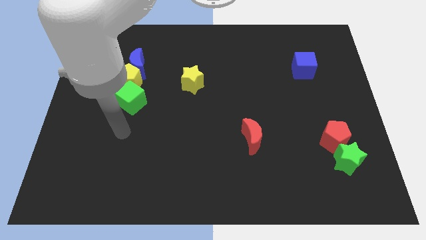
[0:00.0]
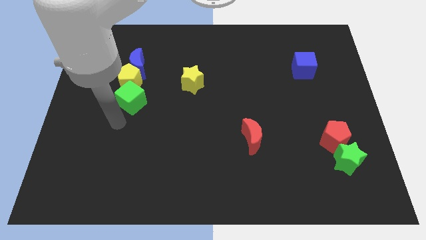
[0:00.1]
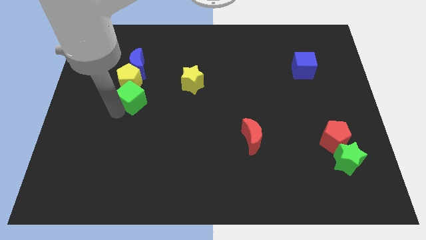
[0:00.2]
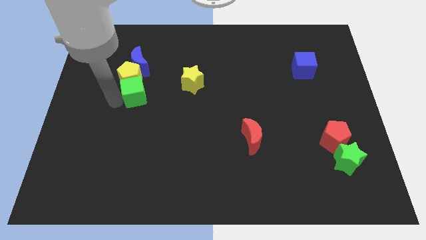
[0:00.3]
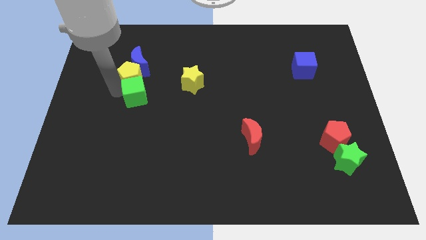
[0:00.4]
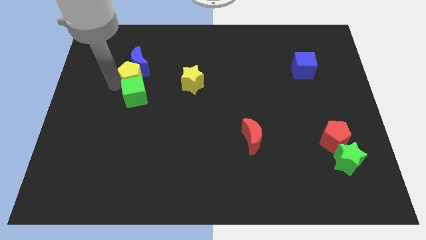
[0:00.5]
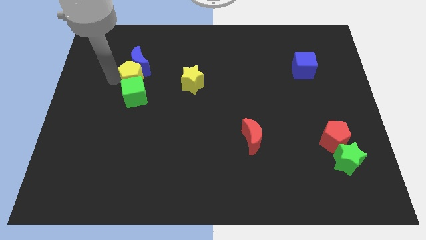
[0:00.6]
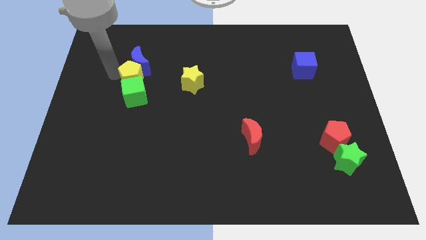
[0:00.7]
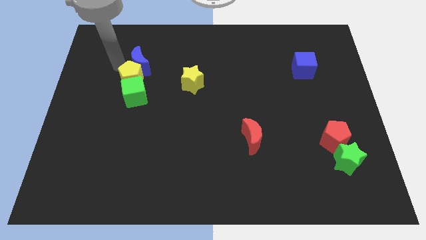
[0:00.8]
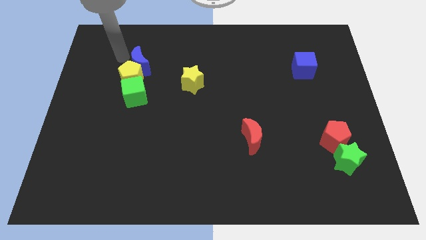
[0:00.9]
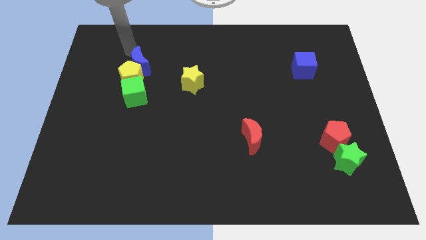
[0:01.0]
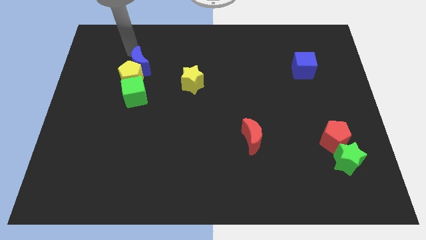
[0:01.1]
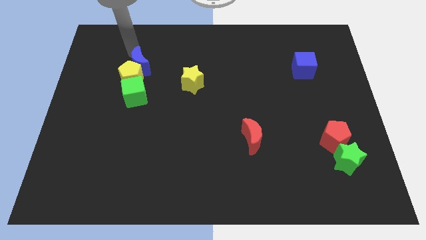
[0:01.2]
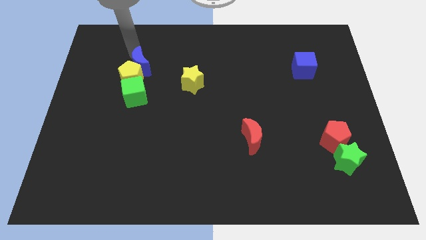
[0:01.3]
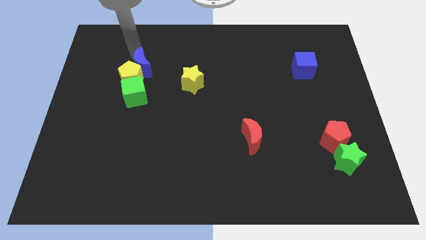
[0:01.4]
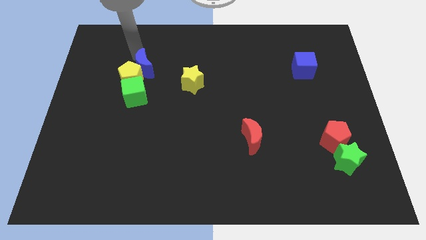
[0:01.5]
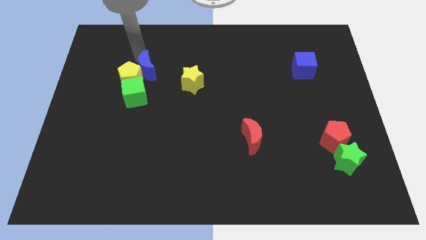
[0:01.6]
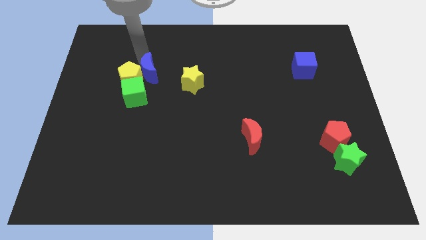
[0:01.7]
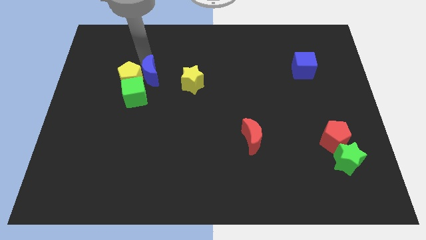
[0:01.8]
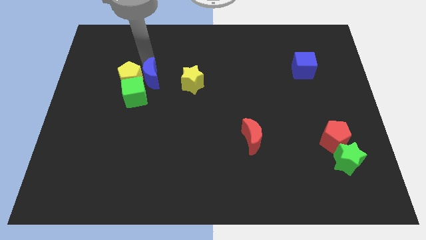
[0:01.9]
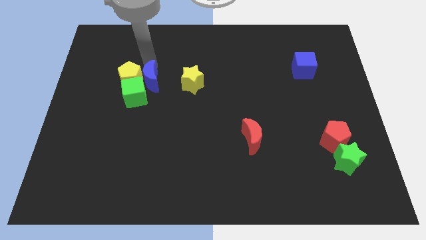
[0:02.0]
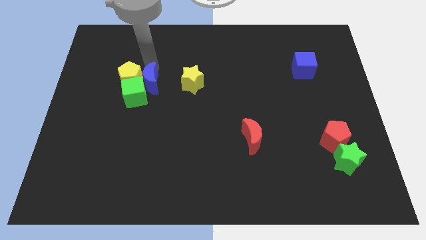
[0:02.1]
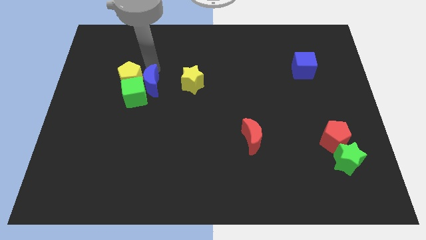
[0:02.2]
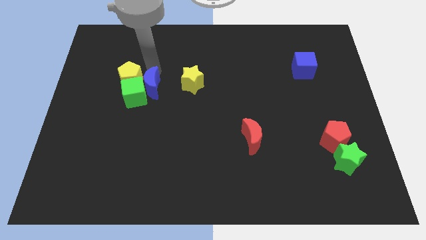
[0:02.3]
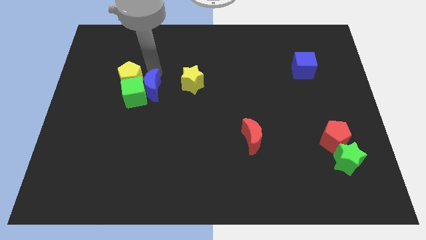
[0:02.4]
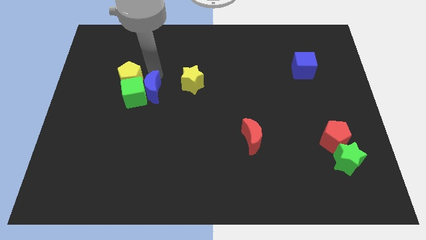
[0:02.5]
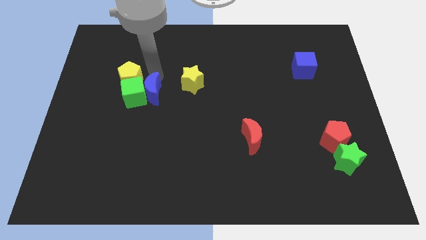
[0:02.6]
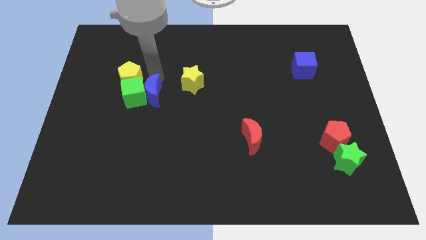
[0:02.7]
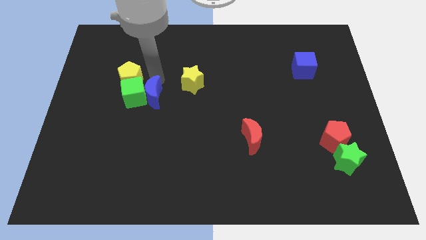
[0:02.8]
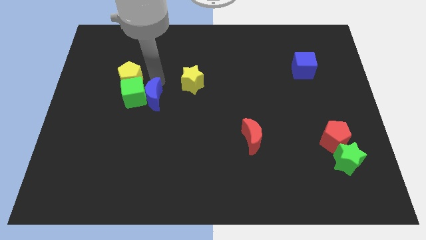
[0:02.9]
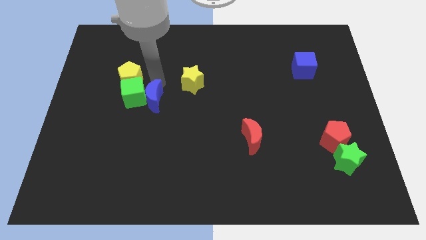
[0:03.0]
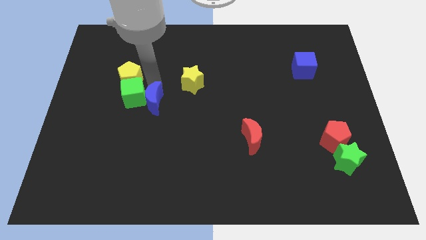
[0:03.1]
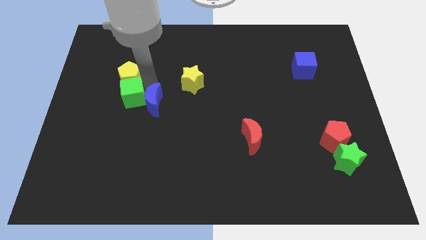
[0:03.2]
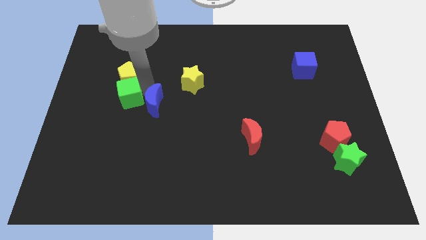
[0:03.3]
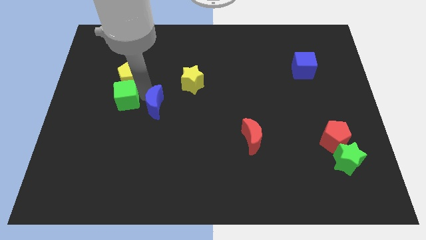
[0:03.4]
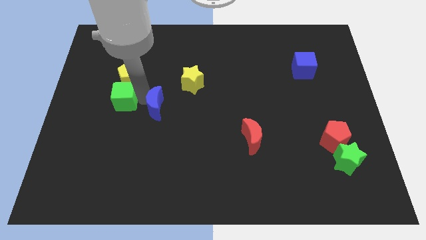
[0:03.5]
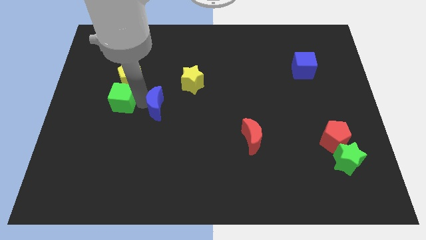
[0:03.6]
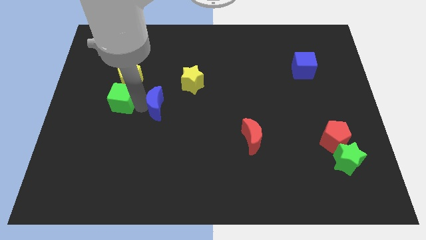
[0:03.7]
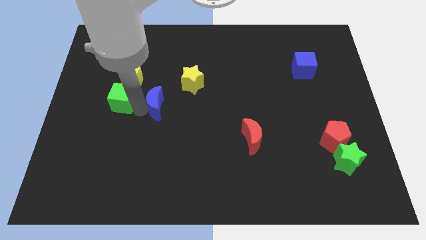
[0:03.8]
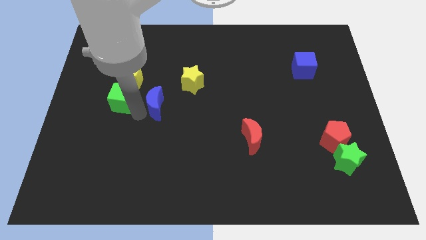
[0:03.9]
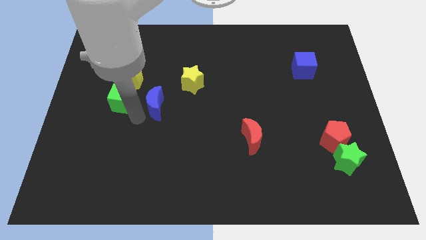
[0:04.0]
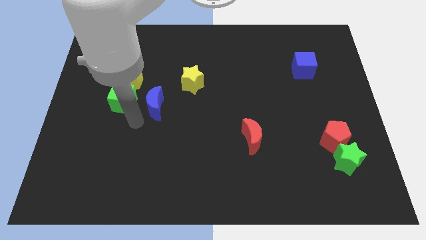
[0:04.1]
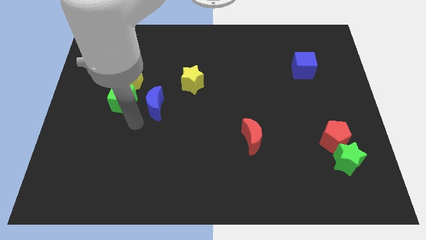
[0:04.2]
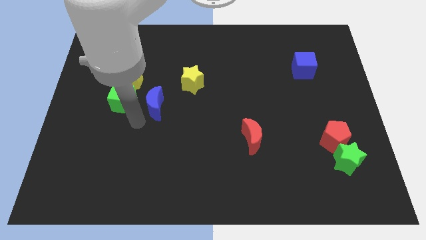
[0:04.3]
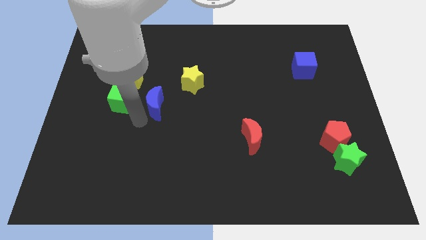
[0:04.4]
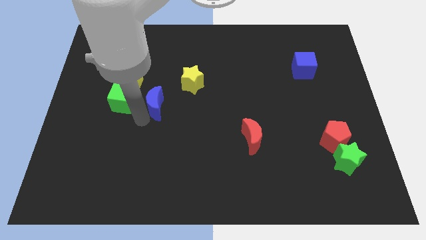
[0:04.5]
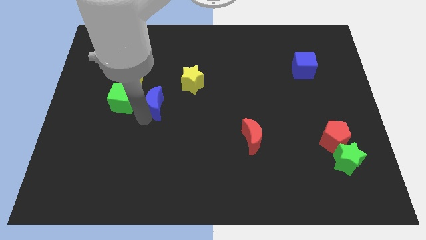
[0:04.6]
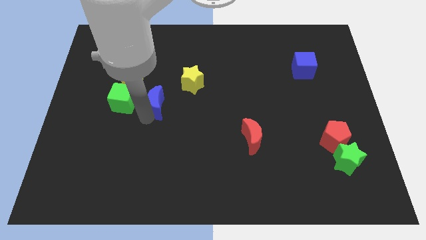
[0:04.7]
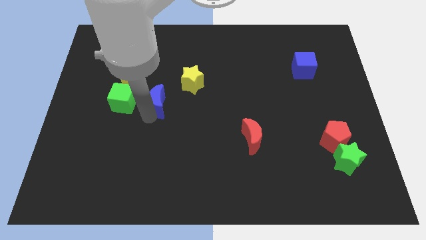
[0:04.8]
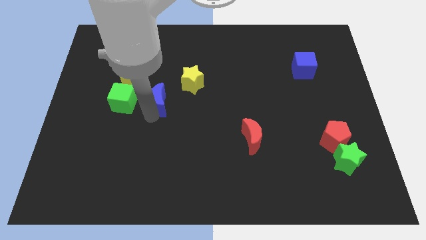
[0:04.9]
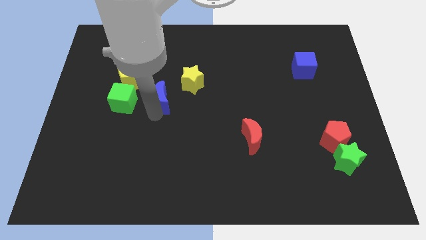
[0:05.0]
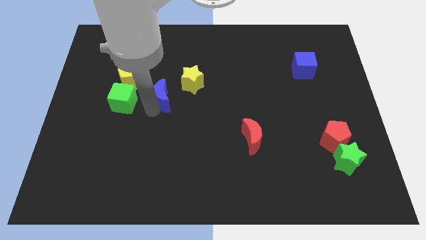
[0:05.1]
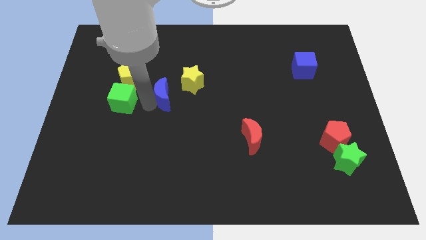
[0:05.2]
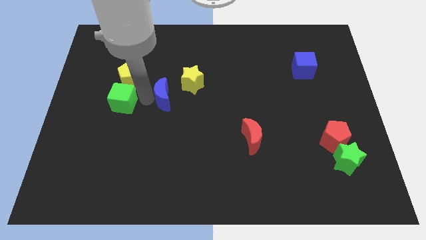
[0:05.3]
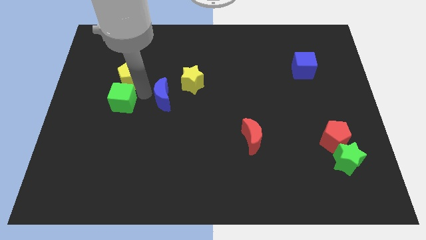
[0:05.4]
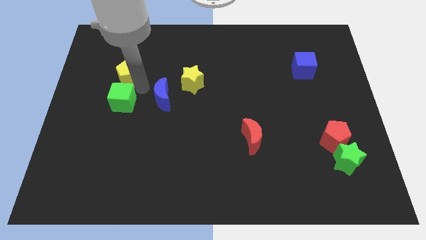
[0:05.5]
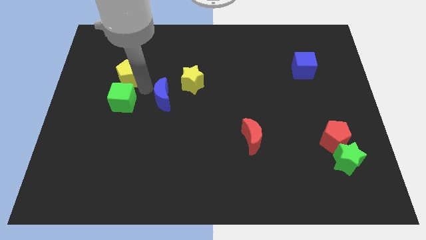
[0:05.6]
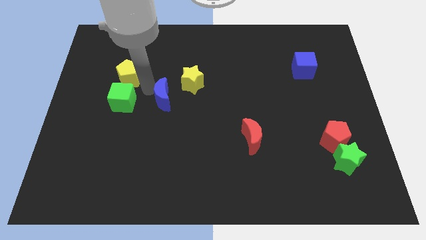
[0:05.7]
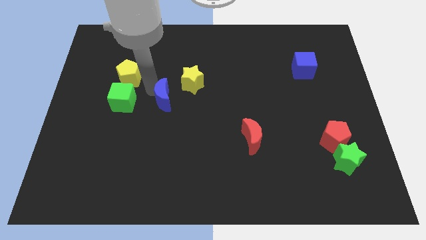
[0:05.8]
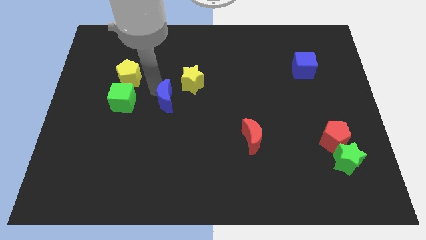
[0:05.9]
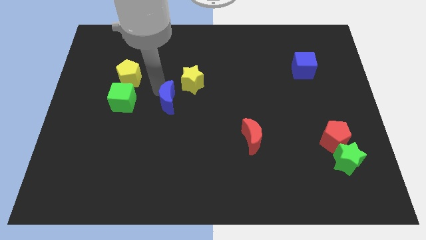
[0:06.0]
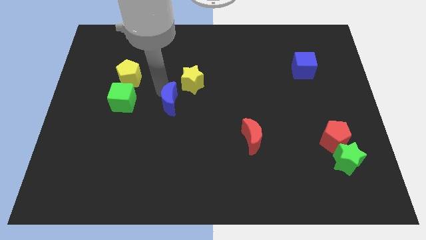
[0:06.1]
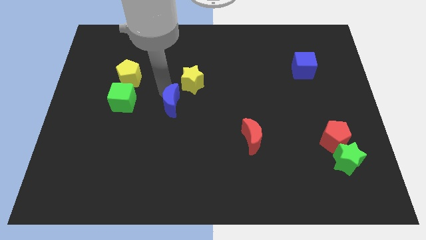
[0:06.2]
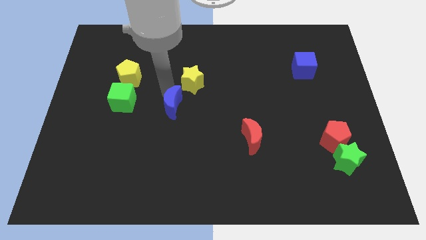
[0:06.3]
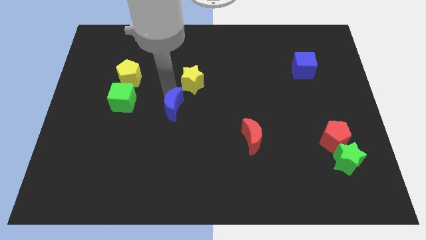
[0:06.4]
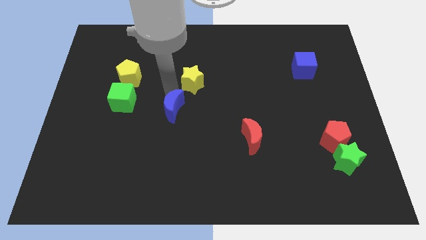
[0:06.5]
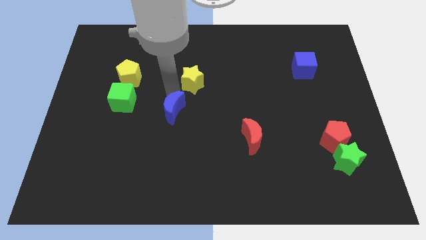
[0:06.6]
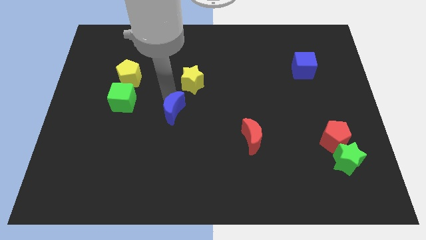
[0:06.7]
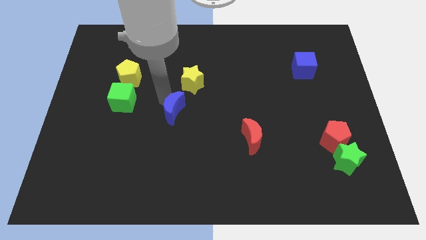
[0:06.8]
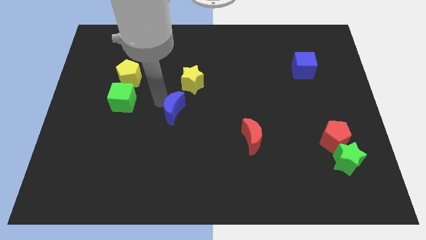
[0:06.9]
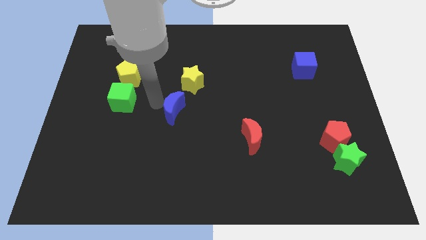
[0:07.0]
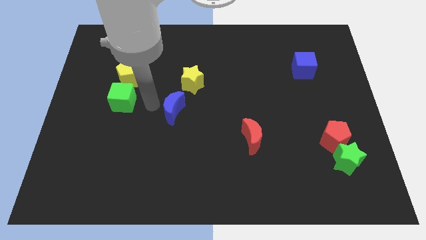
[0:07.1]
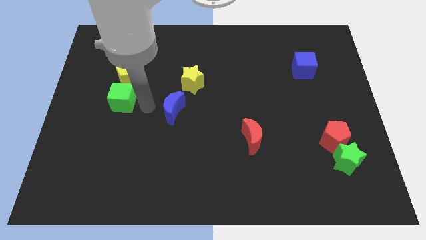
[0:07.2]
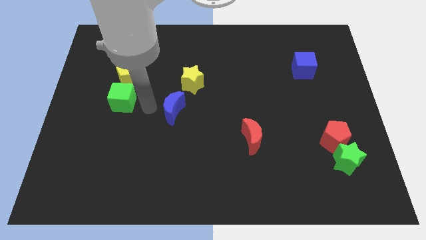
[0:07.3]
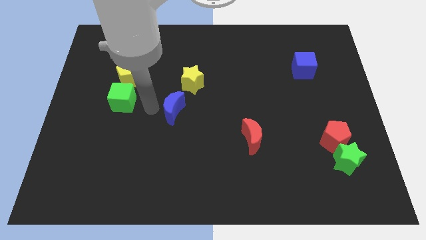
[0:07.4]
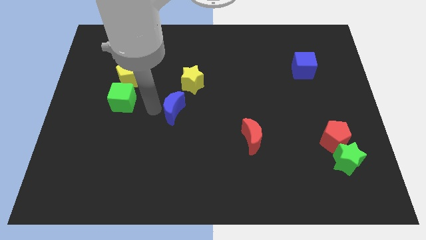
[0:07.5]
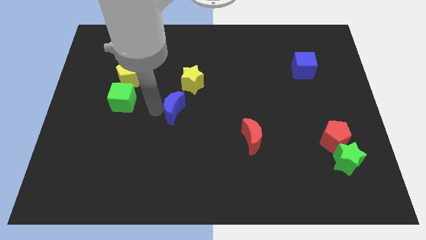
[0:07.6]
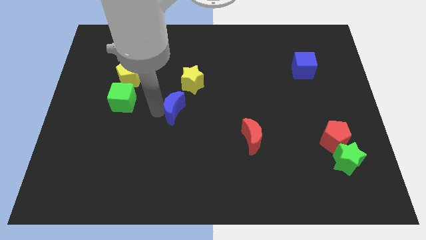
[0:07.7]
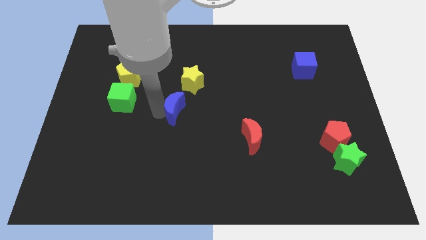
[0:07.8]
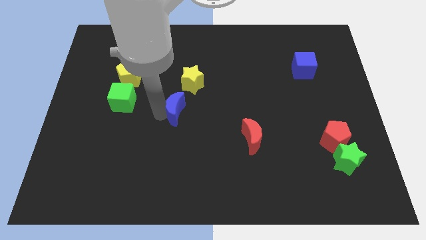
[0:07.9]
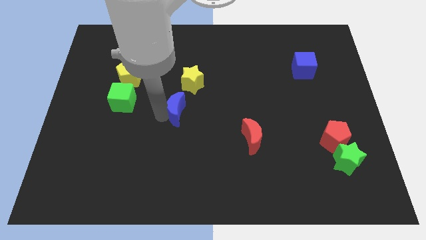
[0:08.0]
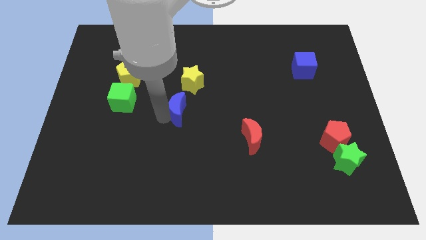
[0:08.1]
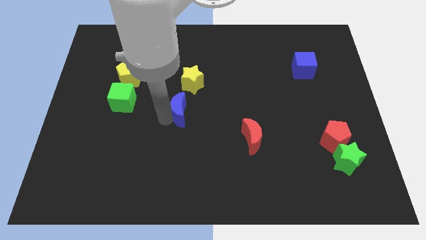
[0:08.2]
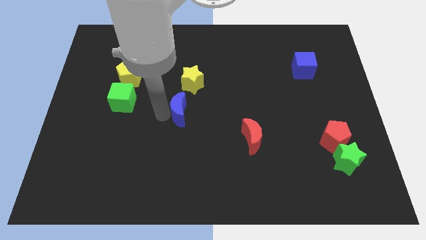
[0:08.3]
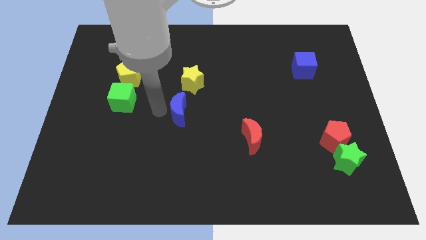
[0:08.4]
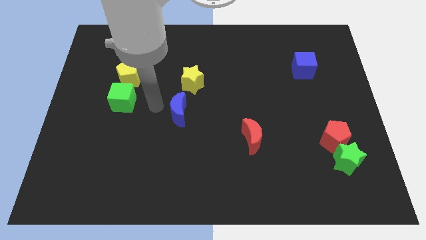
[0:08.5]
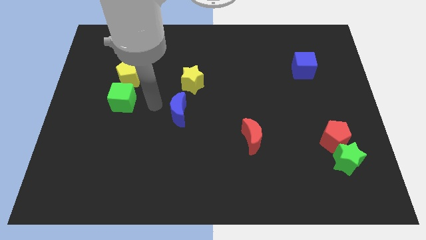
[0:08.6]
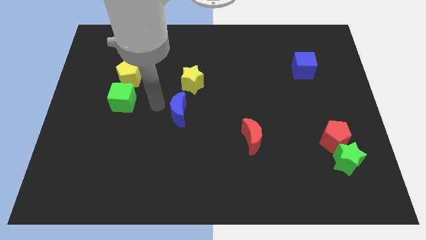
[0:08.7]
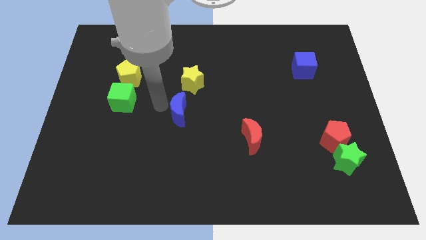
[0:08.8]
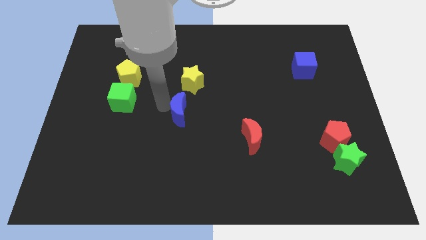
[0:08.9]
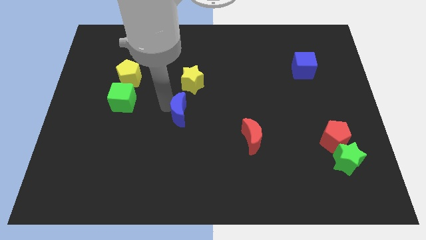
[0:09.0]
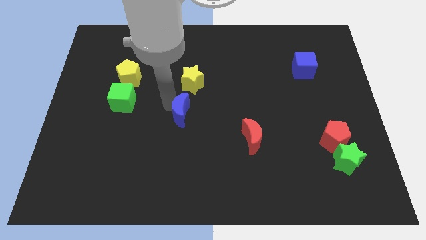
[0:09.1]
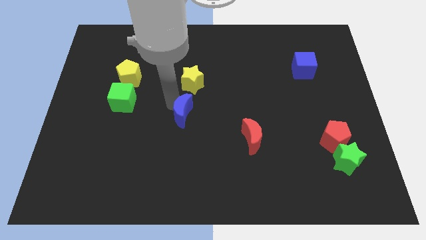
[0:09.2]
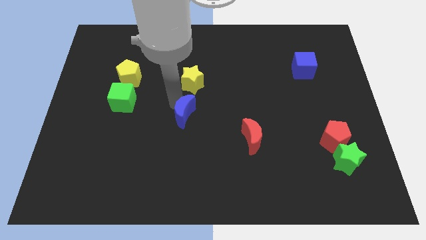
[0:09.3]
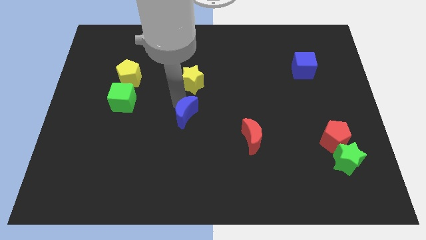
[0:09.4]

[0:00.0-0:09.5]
move the blue moon down and then to the right
